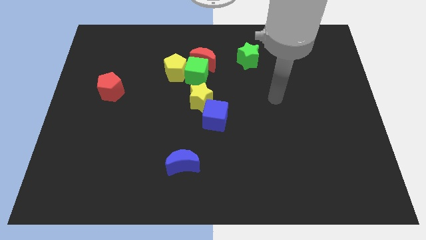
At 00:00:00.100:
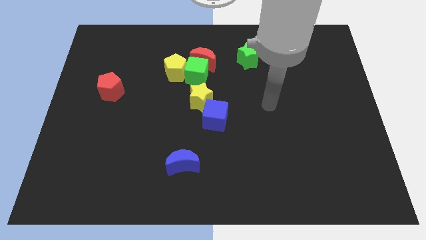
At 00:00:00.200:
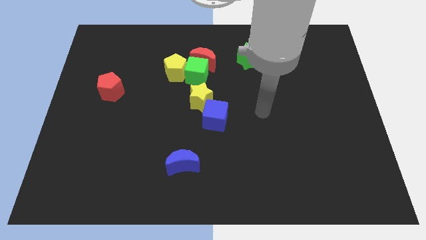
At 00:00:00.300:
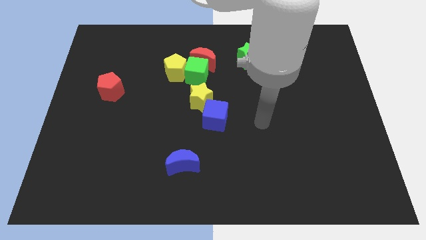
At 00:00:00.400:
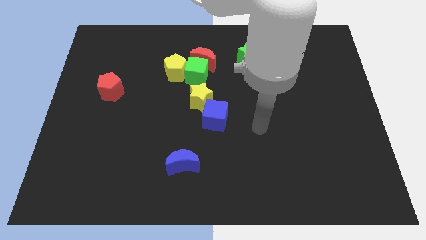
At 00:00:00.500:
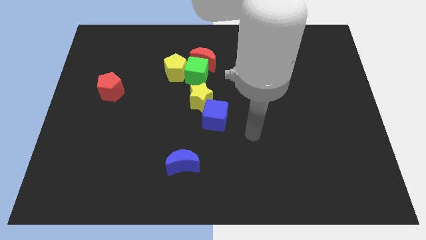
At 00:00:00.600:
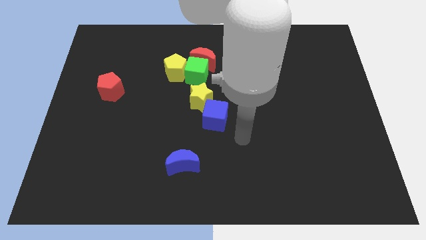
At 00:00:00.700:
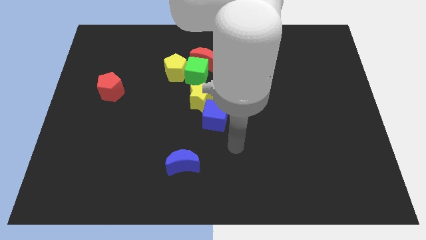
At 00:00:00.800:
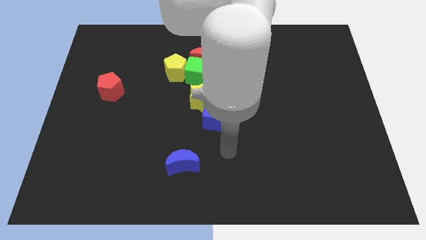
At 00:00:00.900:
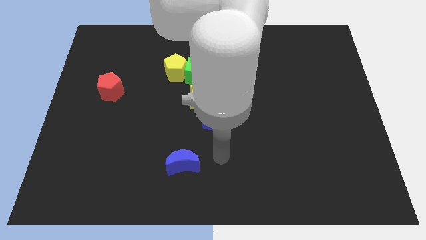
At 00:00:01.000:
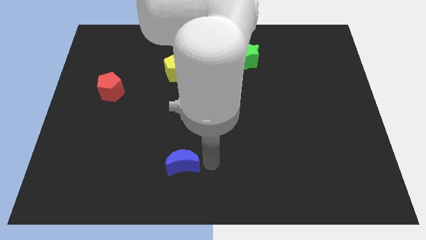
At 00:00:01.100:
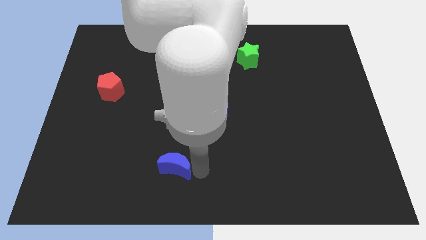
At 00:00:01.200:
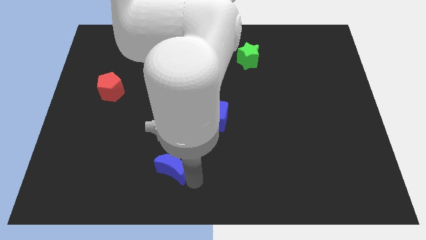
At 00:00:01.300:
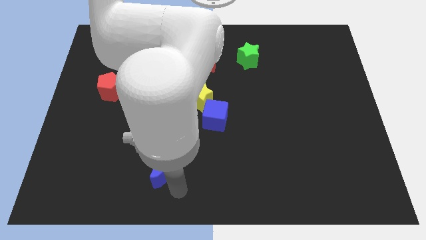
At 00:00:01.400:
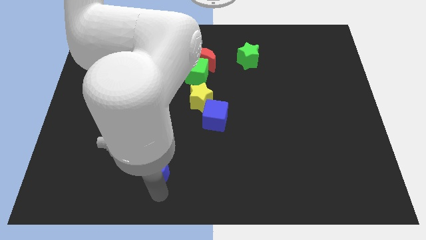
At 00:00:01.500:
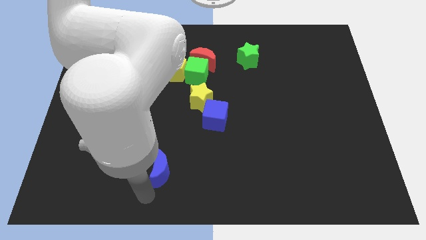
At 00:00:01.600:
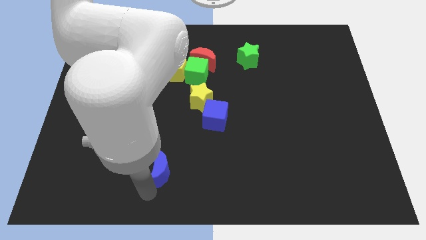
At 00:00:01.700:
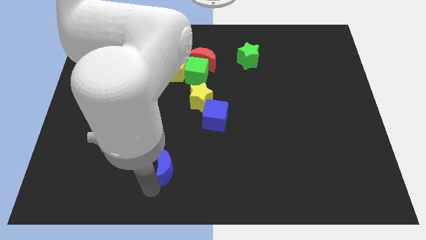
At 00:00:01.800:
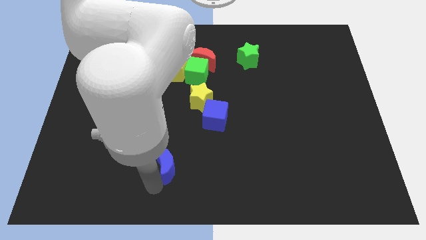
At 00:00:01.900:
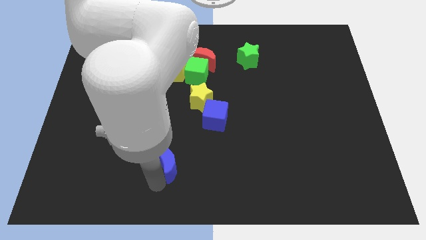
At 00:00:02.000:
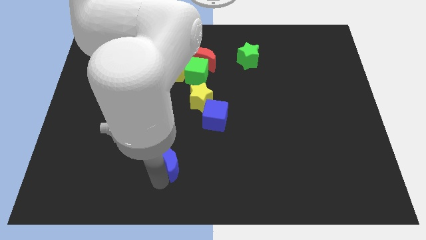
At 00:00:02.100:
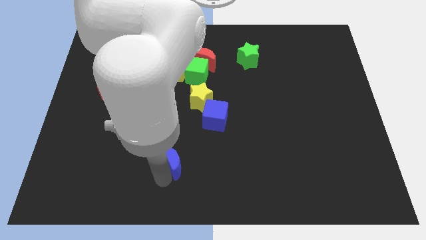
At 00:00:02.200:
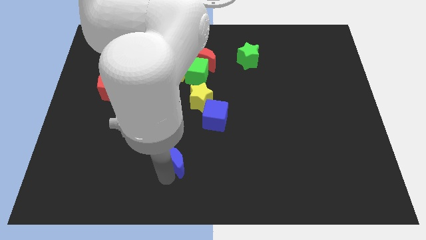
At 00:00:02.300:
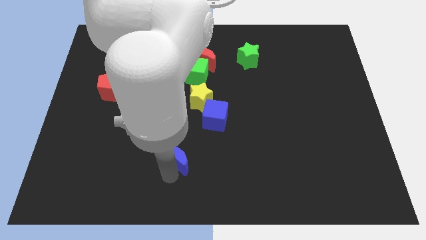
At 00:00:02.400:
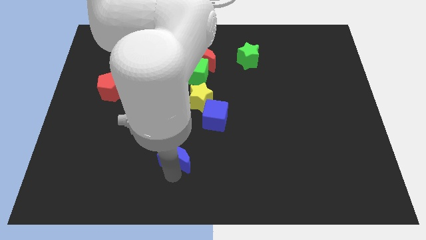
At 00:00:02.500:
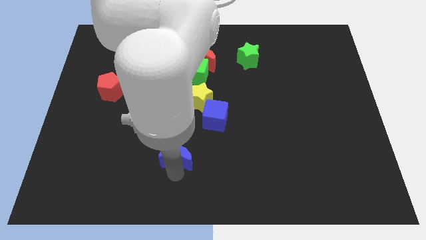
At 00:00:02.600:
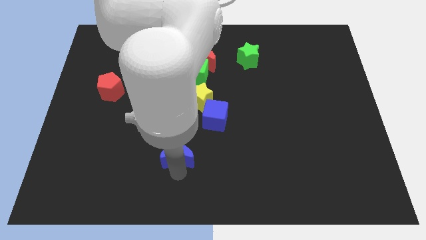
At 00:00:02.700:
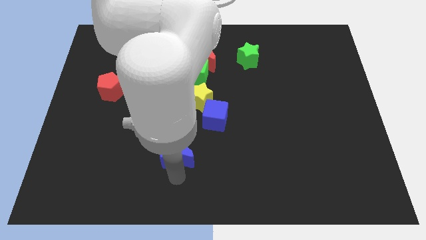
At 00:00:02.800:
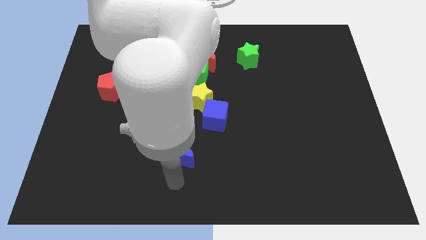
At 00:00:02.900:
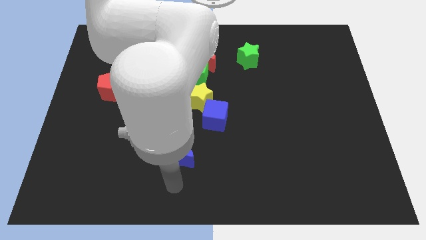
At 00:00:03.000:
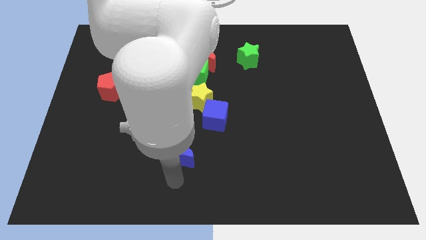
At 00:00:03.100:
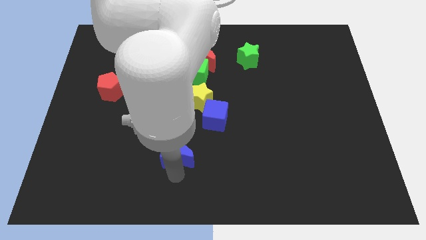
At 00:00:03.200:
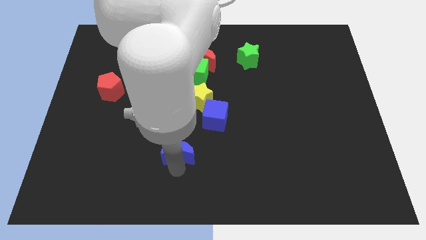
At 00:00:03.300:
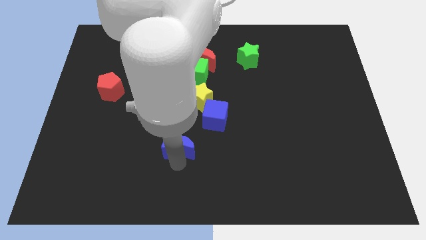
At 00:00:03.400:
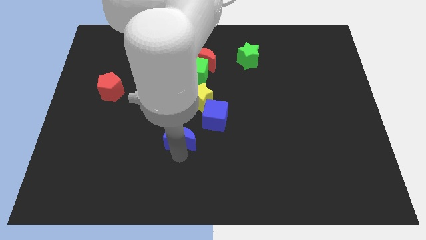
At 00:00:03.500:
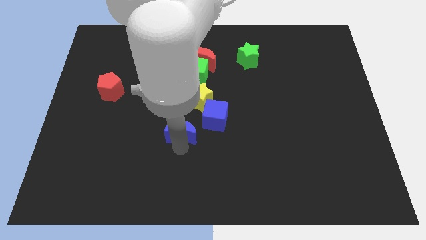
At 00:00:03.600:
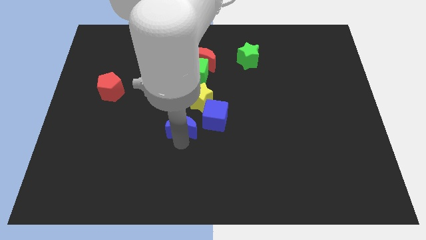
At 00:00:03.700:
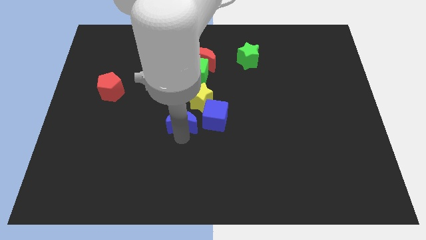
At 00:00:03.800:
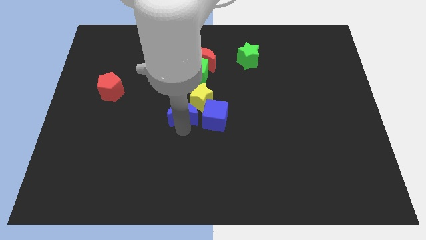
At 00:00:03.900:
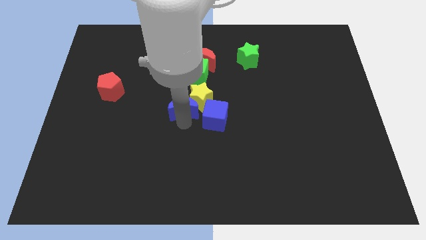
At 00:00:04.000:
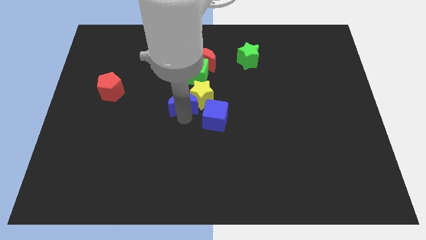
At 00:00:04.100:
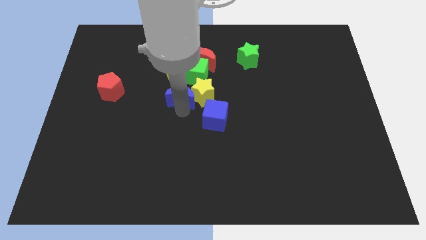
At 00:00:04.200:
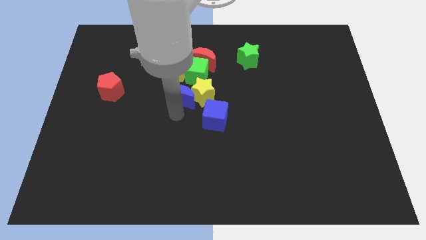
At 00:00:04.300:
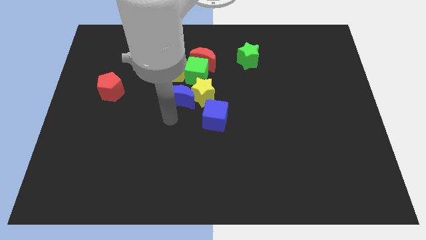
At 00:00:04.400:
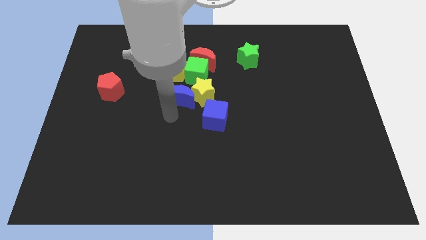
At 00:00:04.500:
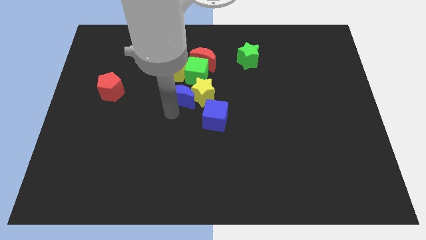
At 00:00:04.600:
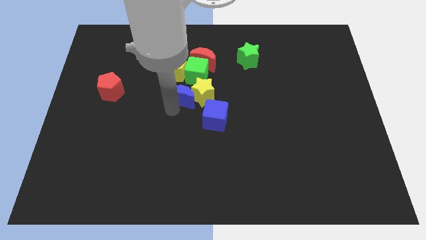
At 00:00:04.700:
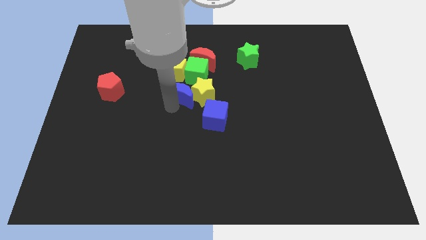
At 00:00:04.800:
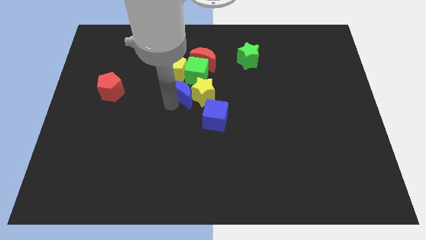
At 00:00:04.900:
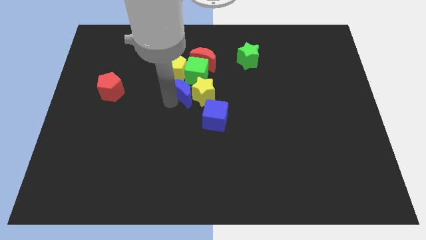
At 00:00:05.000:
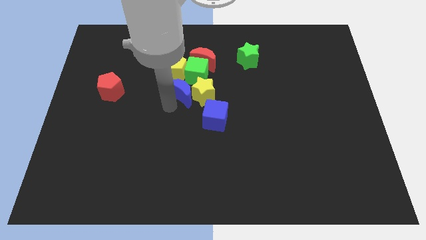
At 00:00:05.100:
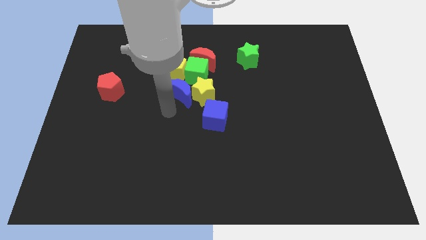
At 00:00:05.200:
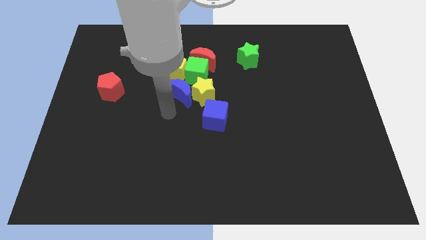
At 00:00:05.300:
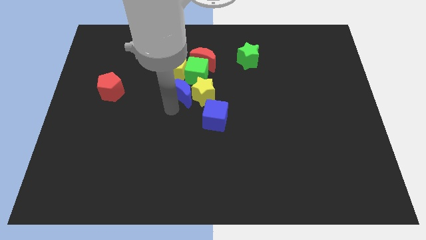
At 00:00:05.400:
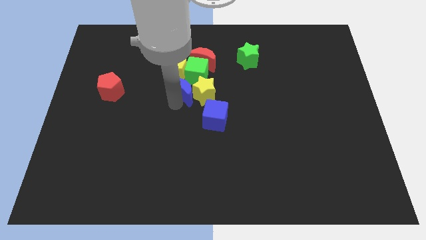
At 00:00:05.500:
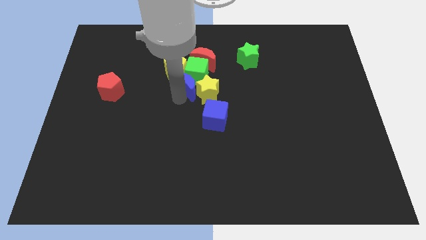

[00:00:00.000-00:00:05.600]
put the blue moon next to the green cube

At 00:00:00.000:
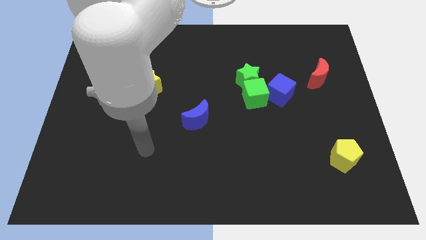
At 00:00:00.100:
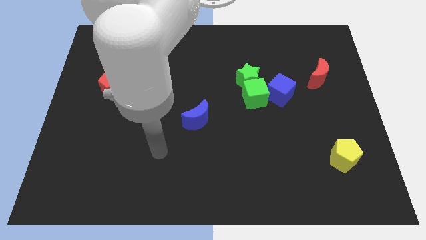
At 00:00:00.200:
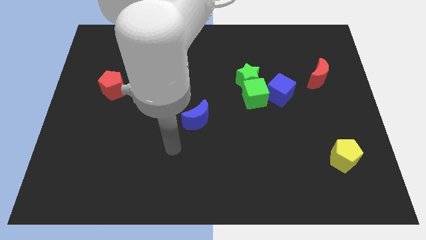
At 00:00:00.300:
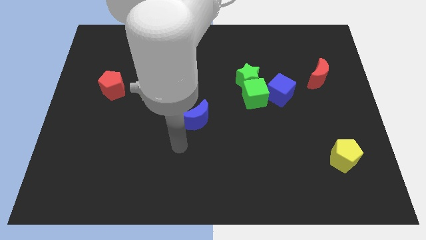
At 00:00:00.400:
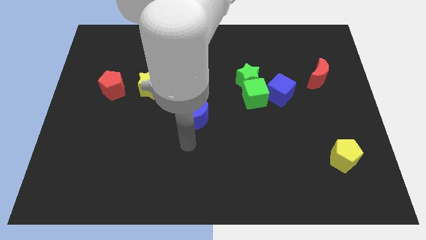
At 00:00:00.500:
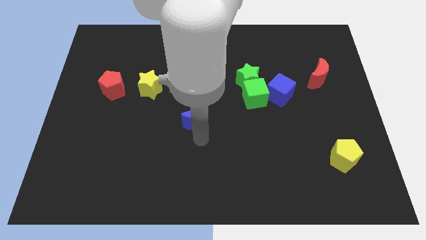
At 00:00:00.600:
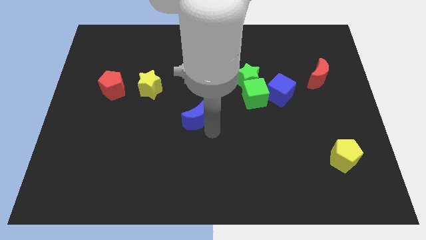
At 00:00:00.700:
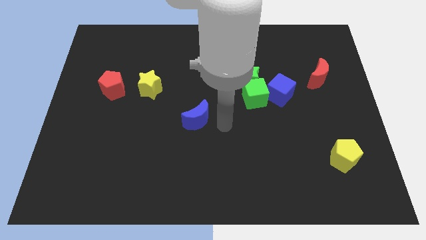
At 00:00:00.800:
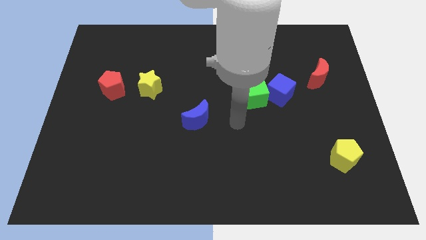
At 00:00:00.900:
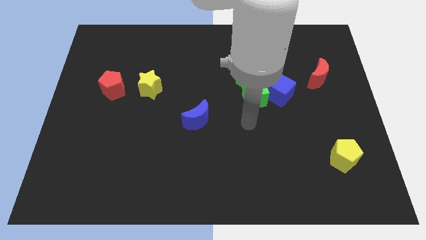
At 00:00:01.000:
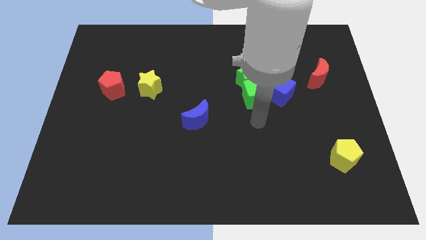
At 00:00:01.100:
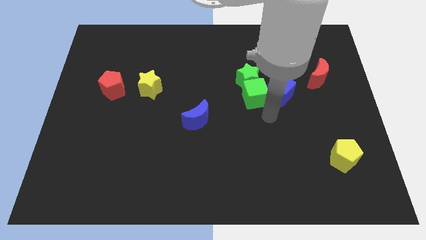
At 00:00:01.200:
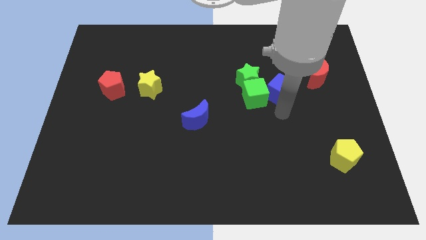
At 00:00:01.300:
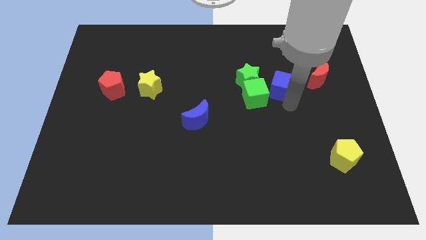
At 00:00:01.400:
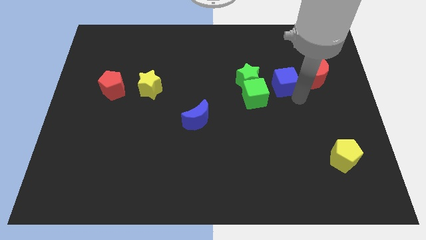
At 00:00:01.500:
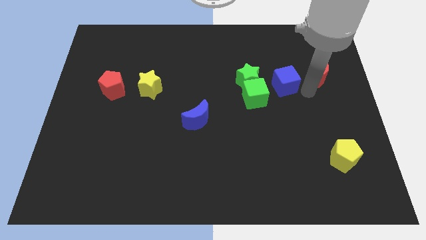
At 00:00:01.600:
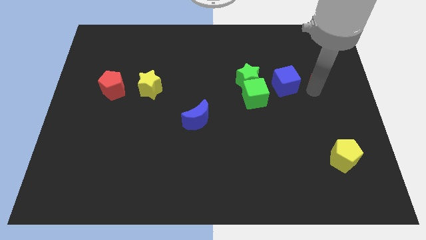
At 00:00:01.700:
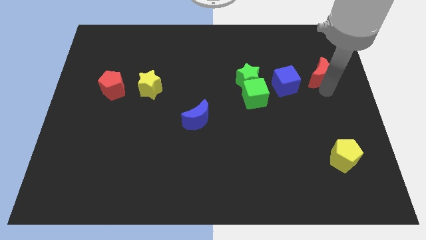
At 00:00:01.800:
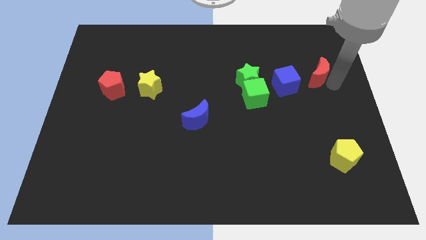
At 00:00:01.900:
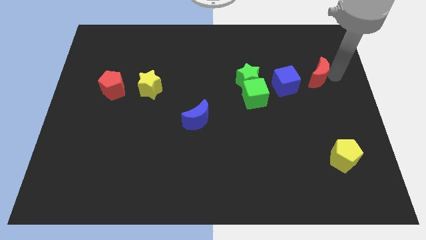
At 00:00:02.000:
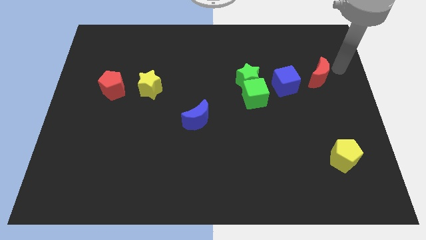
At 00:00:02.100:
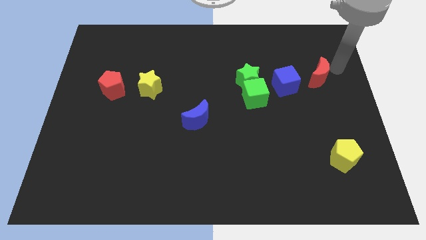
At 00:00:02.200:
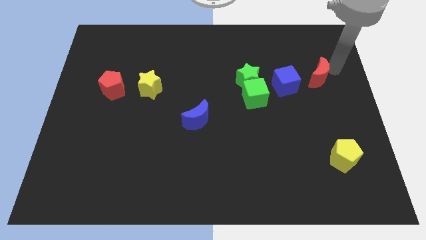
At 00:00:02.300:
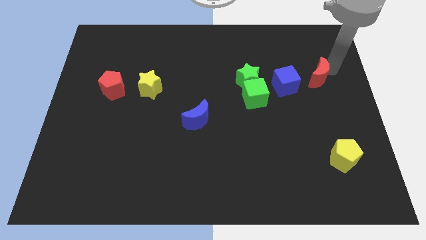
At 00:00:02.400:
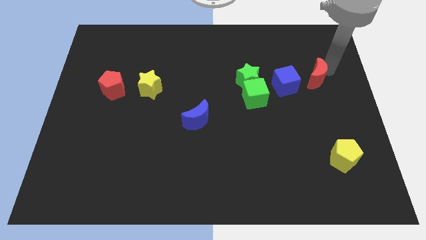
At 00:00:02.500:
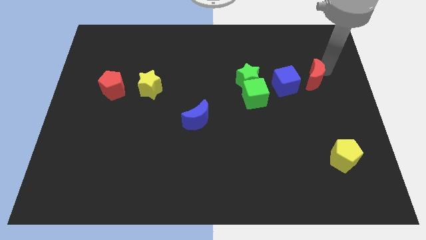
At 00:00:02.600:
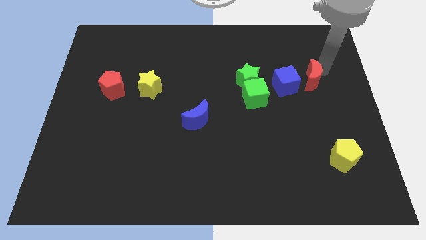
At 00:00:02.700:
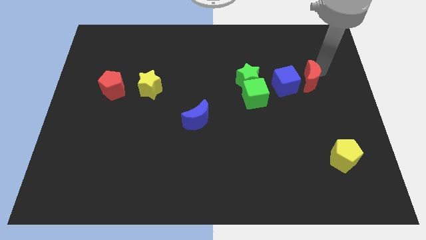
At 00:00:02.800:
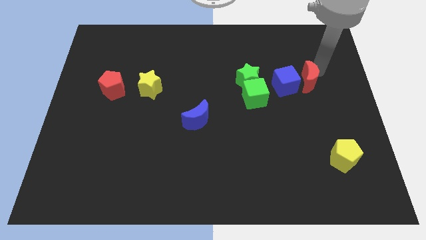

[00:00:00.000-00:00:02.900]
push the red moon towards the blue cube
